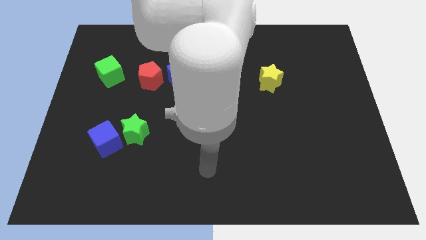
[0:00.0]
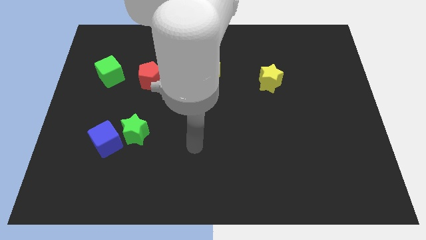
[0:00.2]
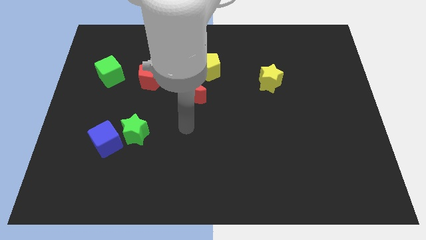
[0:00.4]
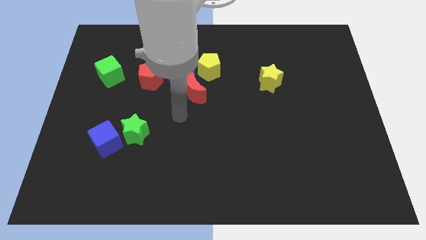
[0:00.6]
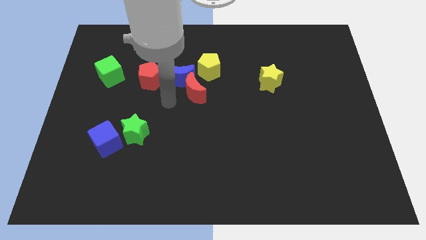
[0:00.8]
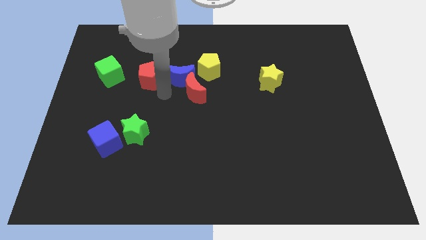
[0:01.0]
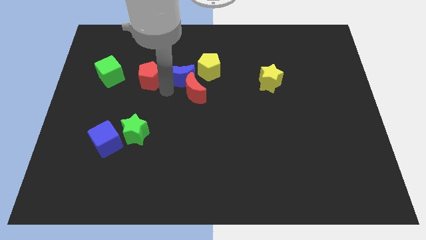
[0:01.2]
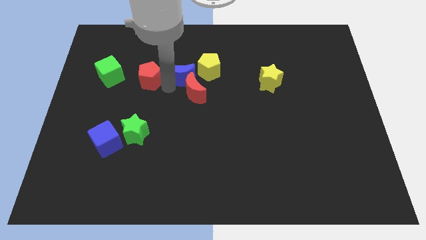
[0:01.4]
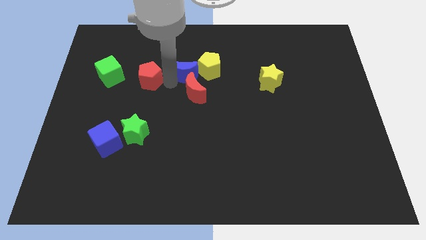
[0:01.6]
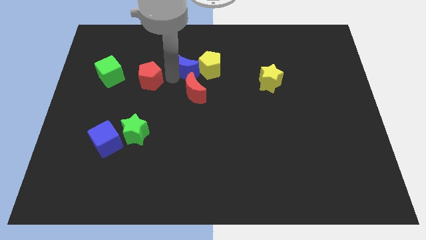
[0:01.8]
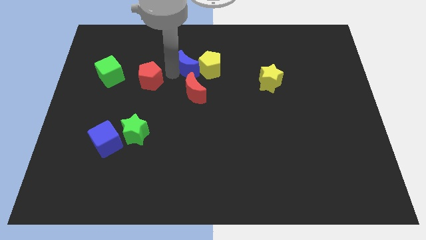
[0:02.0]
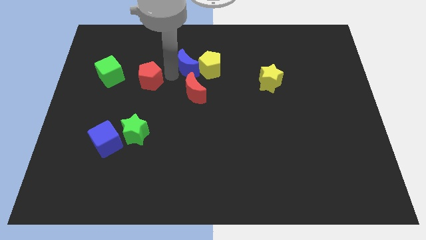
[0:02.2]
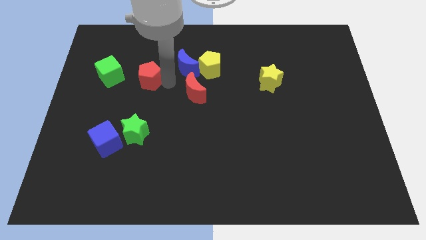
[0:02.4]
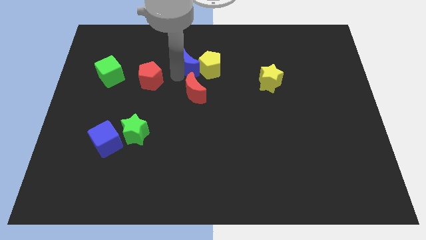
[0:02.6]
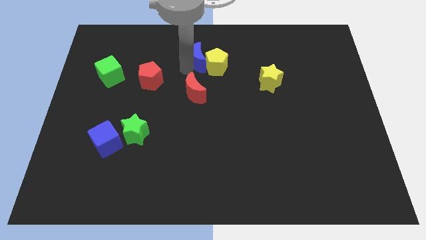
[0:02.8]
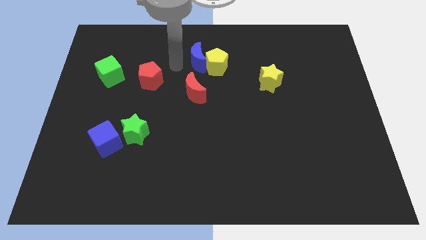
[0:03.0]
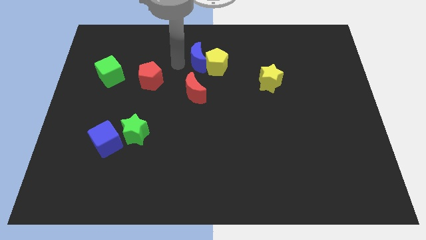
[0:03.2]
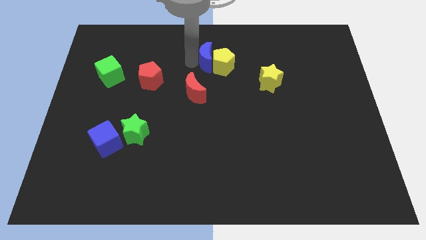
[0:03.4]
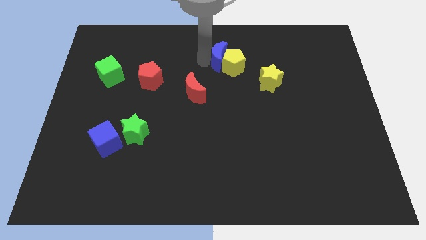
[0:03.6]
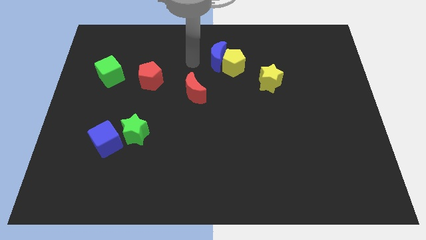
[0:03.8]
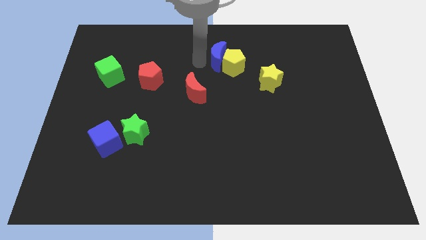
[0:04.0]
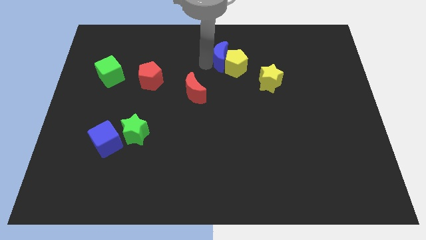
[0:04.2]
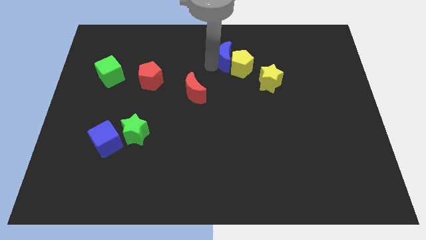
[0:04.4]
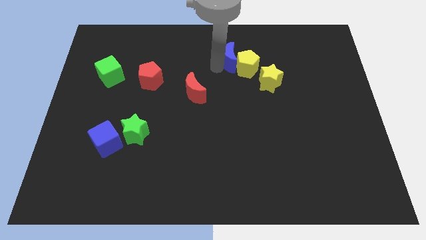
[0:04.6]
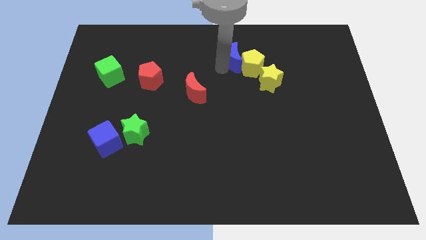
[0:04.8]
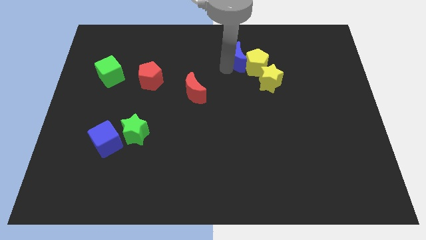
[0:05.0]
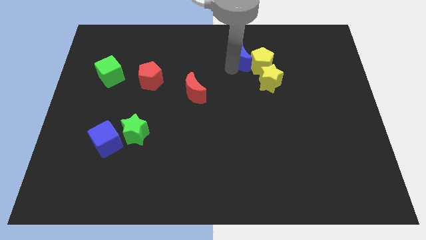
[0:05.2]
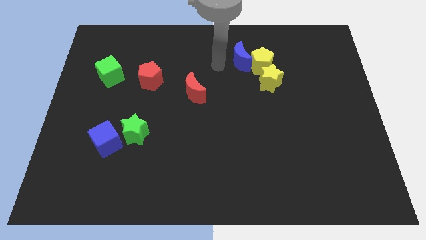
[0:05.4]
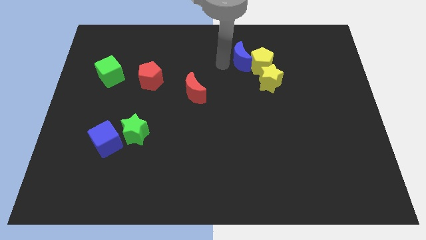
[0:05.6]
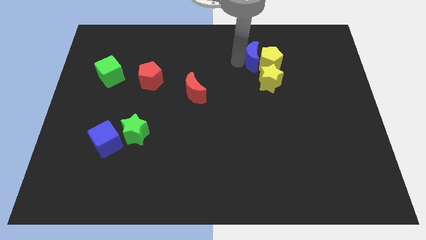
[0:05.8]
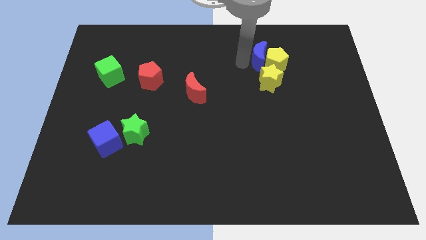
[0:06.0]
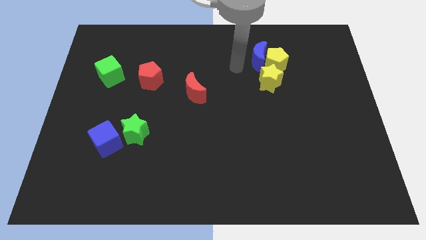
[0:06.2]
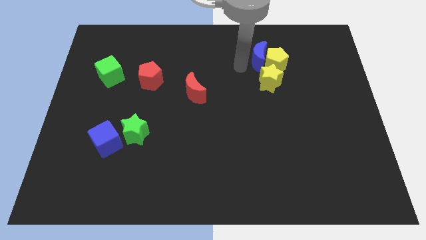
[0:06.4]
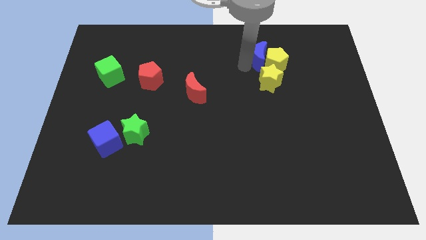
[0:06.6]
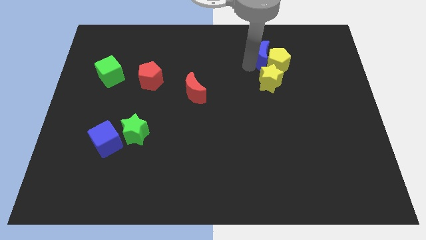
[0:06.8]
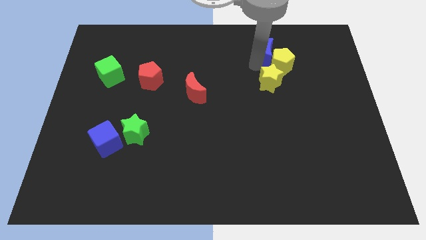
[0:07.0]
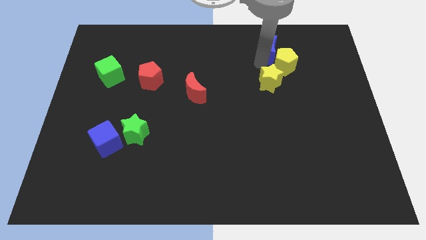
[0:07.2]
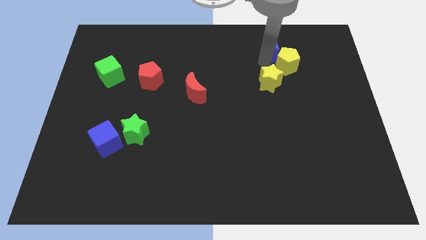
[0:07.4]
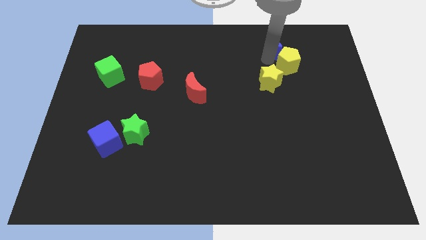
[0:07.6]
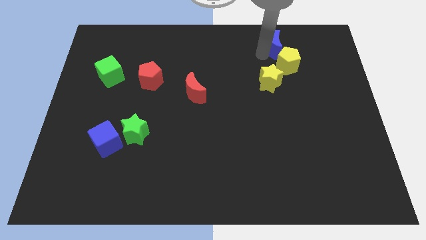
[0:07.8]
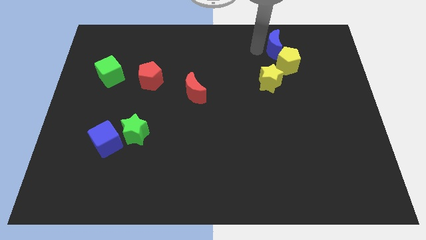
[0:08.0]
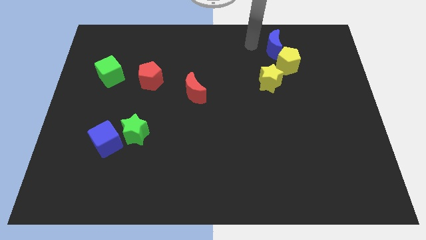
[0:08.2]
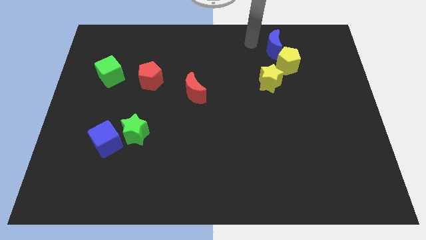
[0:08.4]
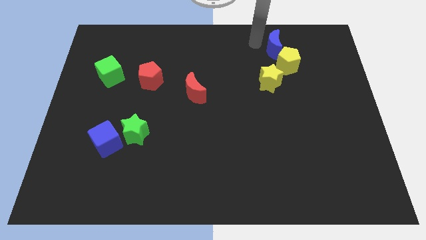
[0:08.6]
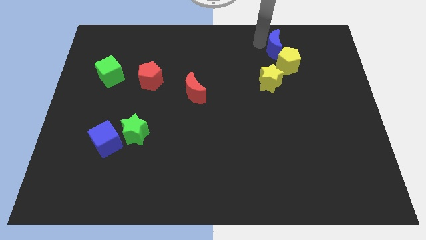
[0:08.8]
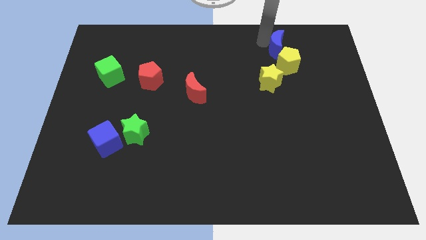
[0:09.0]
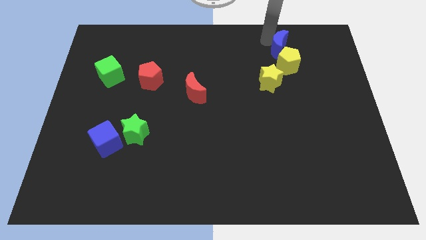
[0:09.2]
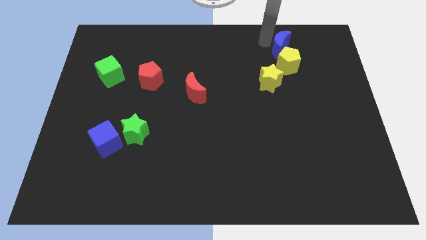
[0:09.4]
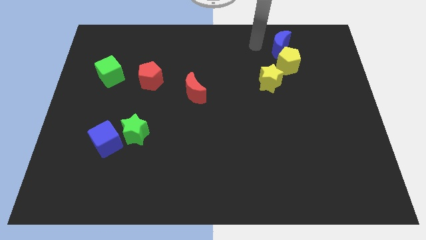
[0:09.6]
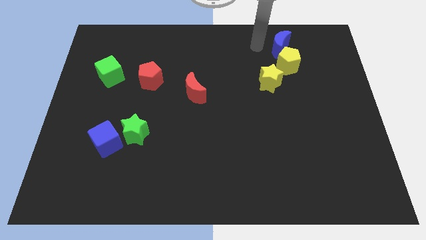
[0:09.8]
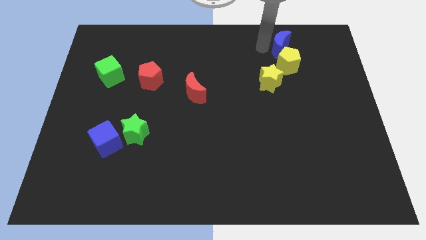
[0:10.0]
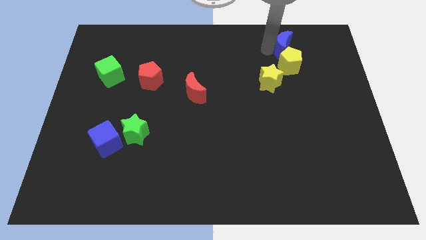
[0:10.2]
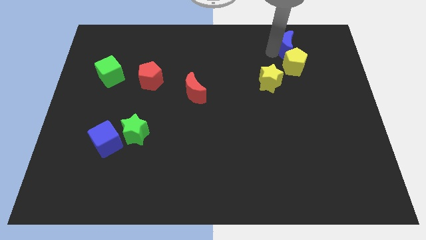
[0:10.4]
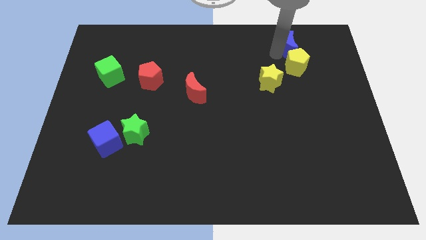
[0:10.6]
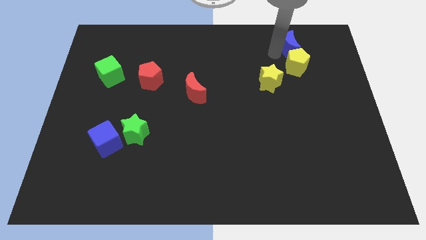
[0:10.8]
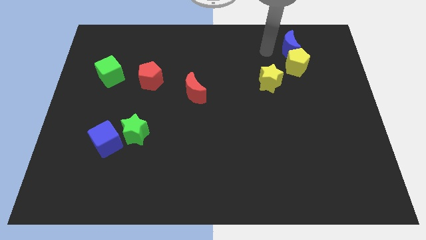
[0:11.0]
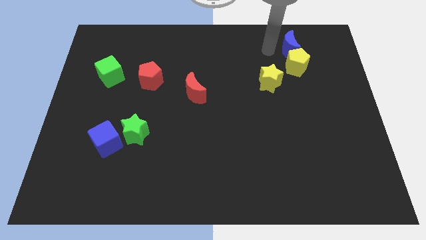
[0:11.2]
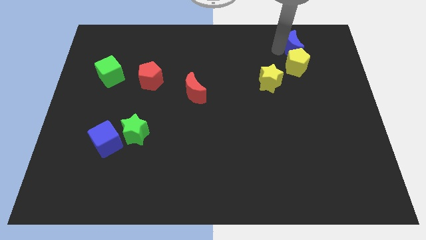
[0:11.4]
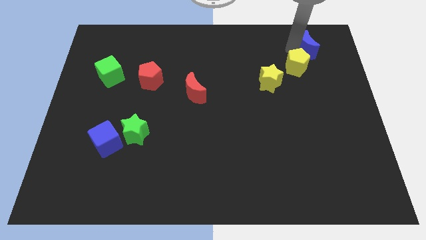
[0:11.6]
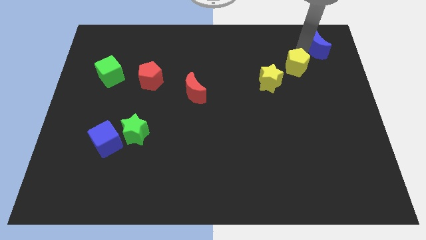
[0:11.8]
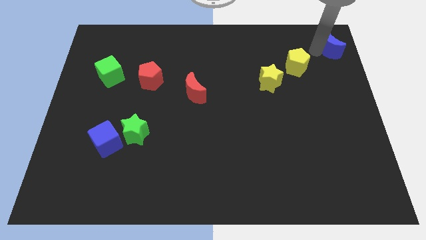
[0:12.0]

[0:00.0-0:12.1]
put the blue moon to the top right of the board
